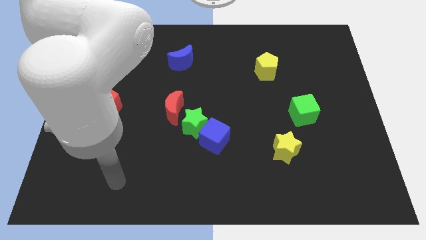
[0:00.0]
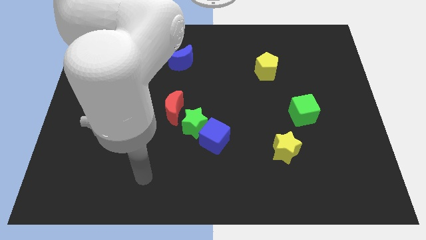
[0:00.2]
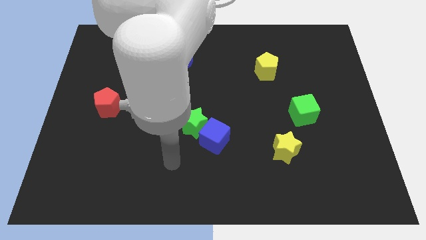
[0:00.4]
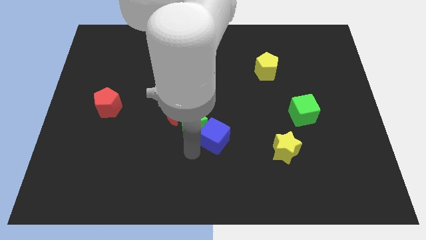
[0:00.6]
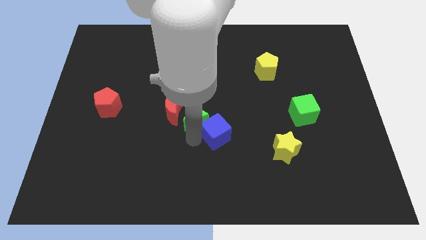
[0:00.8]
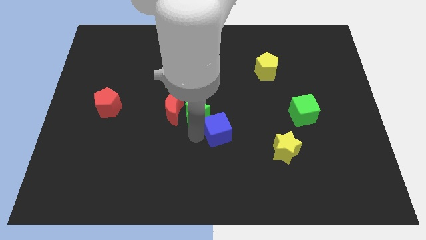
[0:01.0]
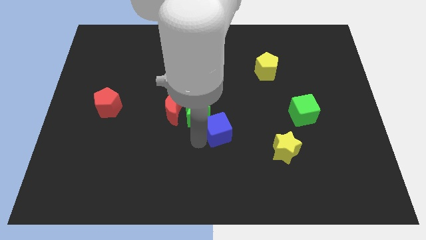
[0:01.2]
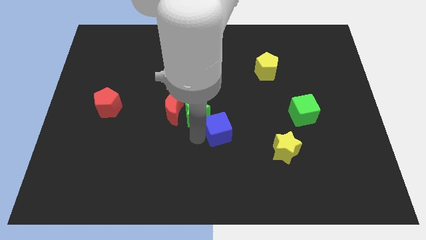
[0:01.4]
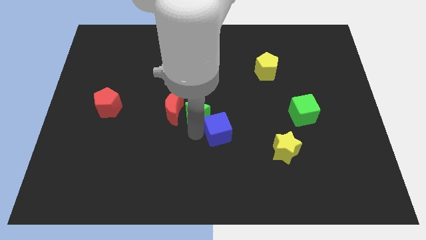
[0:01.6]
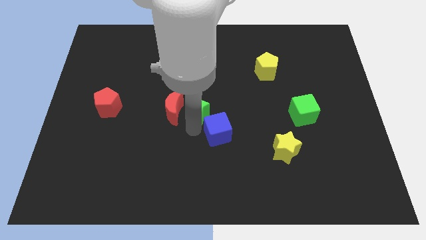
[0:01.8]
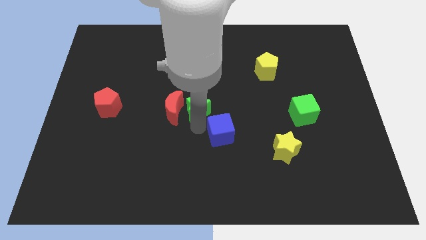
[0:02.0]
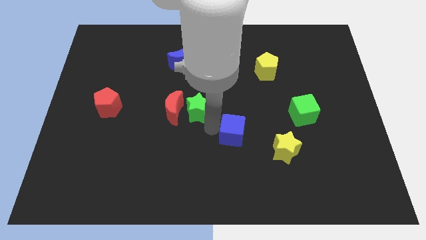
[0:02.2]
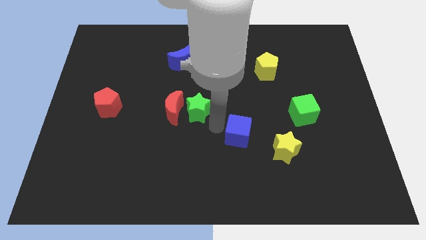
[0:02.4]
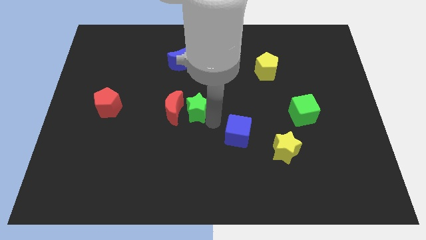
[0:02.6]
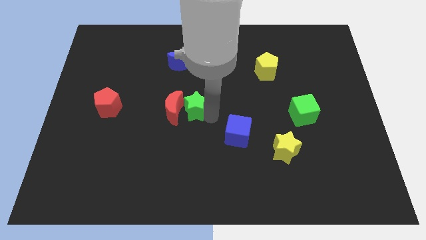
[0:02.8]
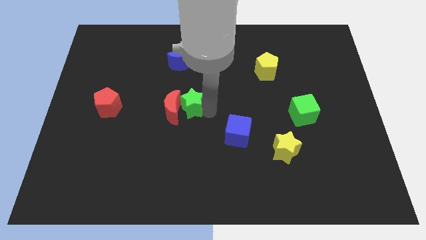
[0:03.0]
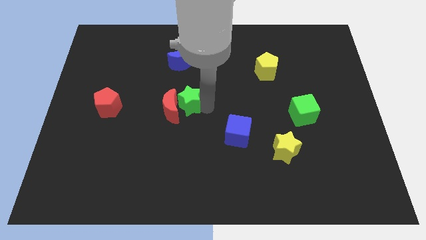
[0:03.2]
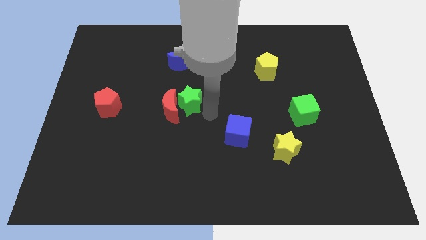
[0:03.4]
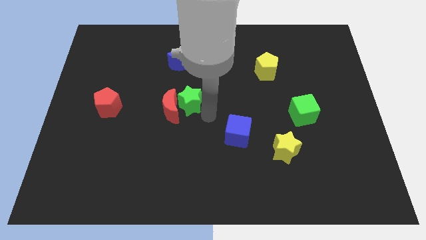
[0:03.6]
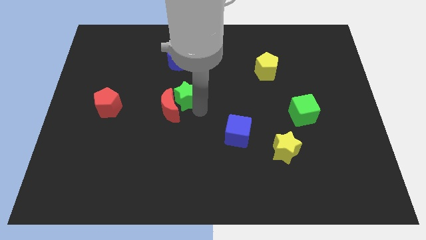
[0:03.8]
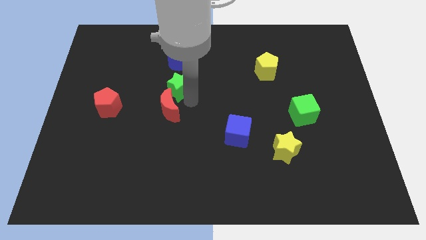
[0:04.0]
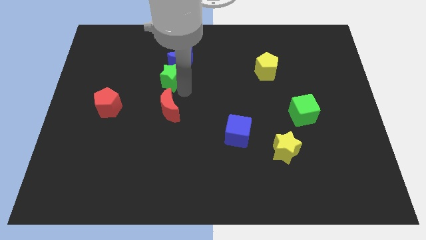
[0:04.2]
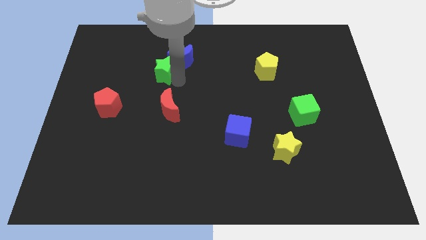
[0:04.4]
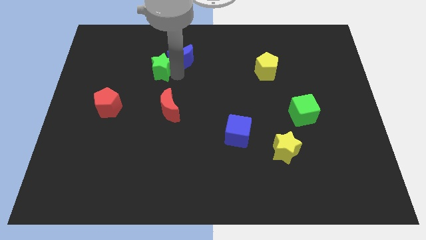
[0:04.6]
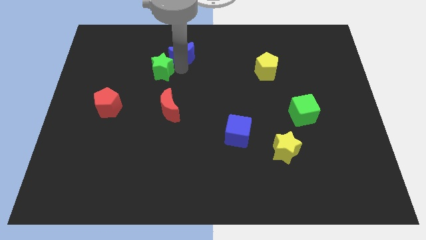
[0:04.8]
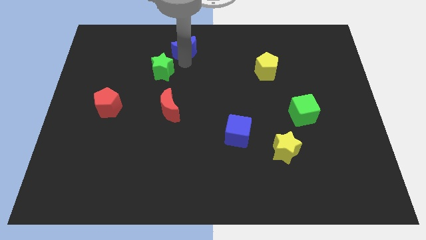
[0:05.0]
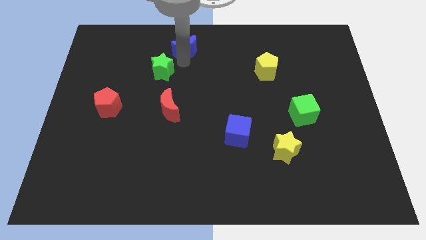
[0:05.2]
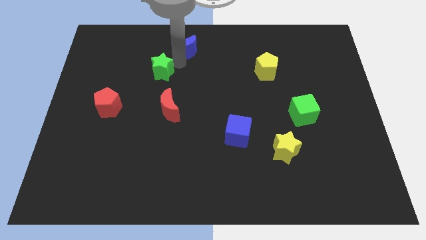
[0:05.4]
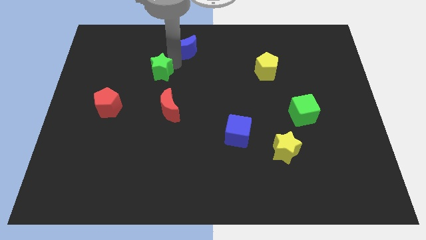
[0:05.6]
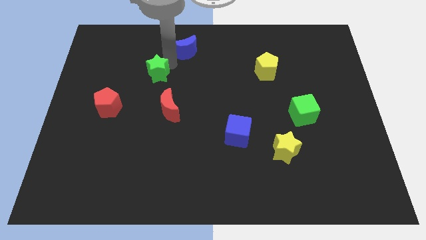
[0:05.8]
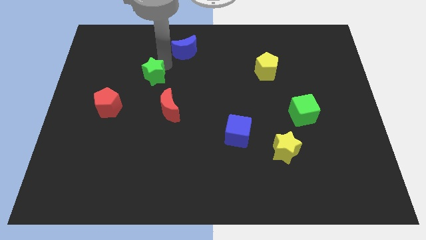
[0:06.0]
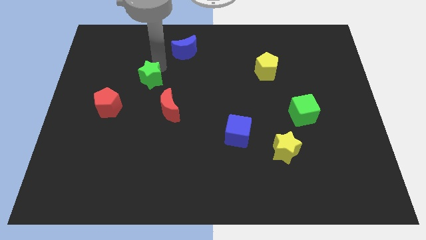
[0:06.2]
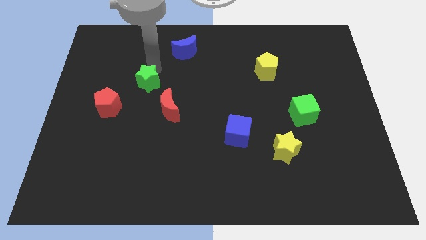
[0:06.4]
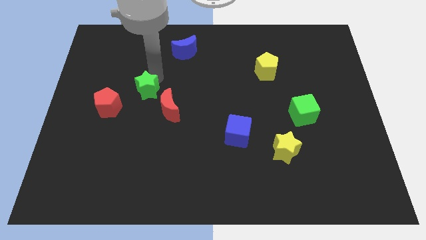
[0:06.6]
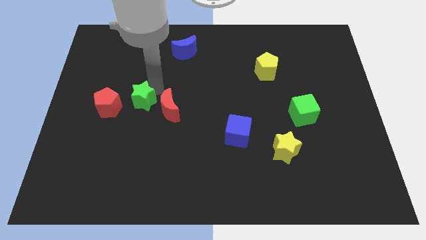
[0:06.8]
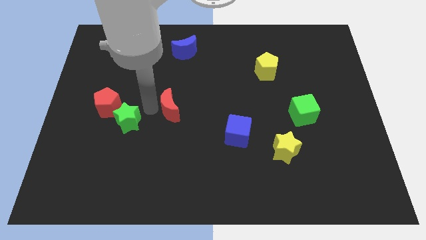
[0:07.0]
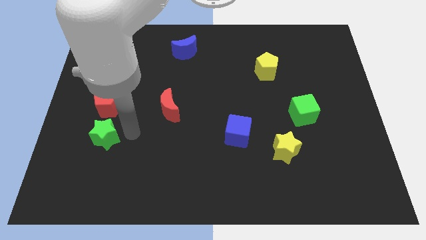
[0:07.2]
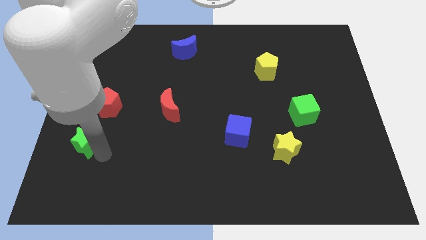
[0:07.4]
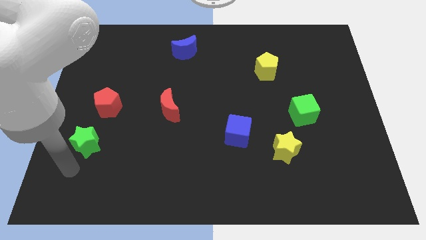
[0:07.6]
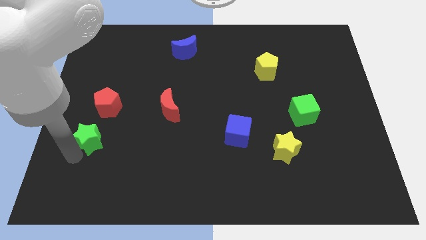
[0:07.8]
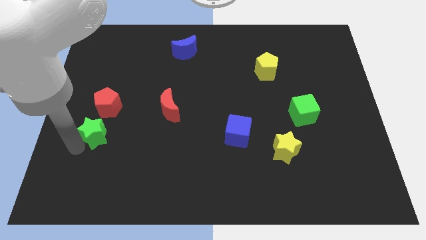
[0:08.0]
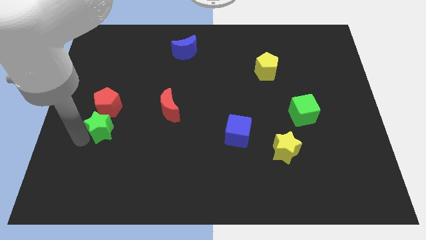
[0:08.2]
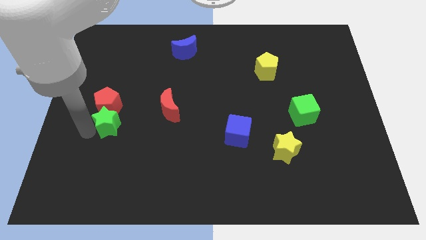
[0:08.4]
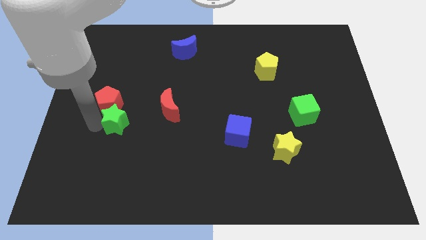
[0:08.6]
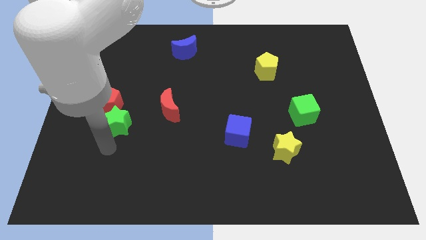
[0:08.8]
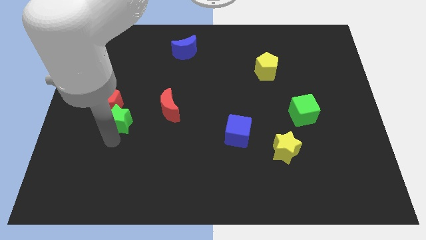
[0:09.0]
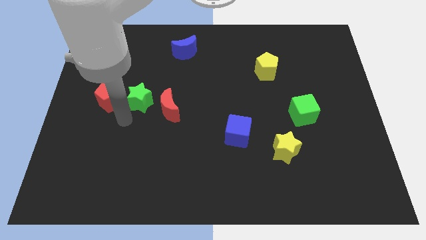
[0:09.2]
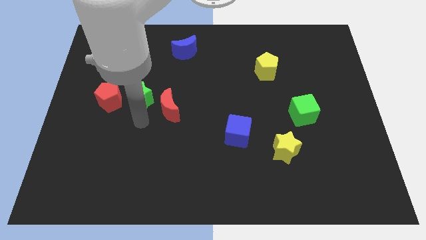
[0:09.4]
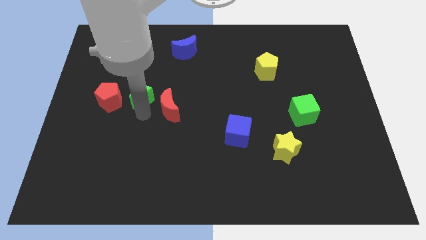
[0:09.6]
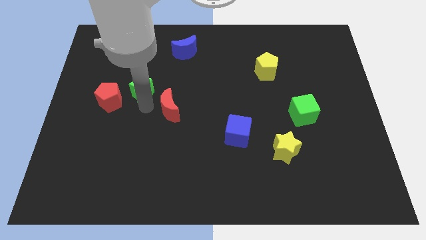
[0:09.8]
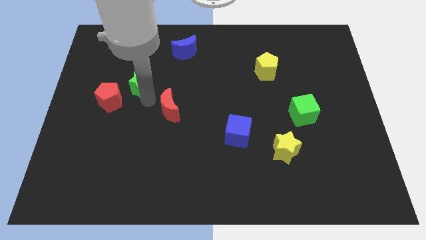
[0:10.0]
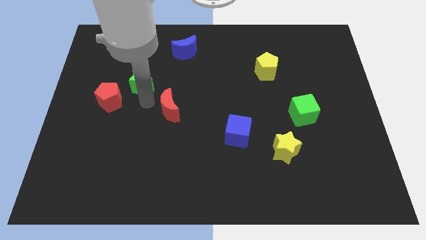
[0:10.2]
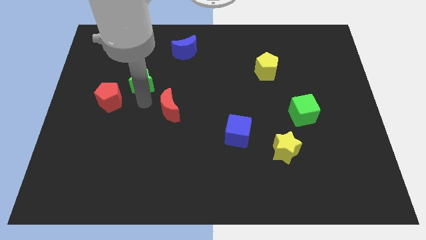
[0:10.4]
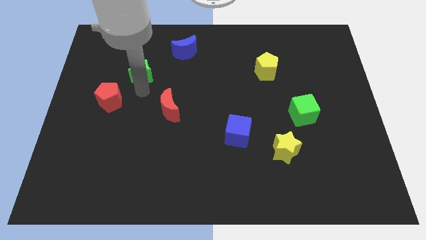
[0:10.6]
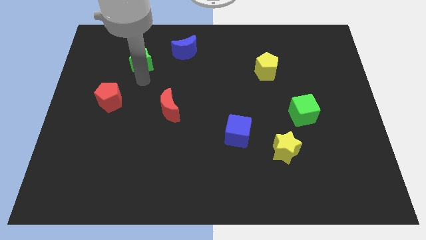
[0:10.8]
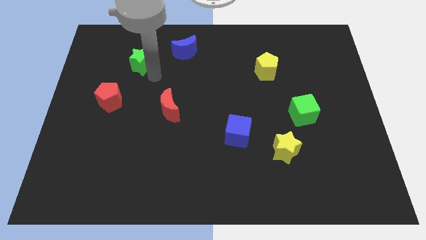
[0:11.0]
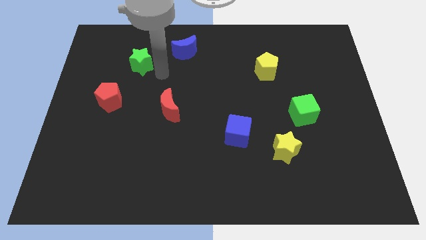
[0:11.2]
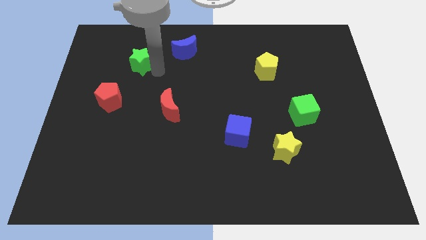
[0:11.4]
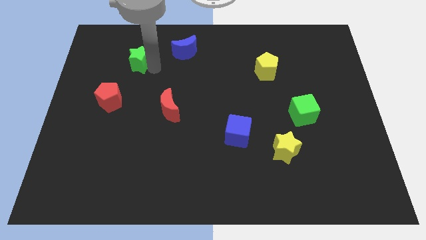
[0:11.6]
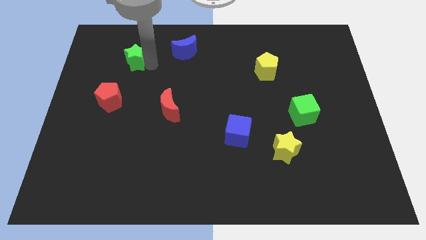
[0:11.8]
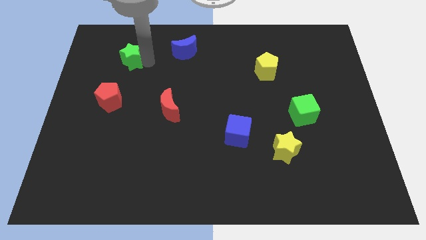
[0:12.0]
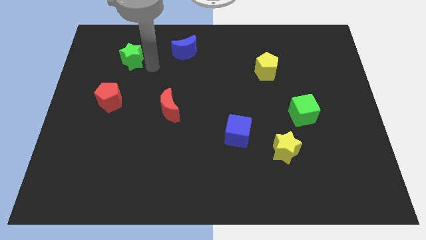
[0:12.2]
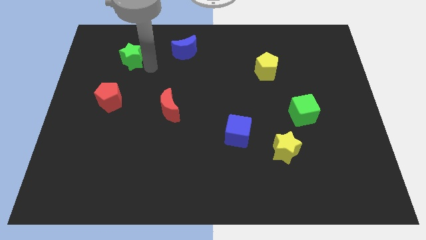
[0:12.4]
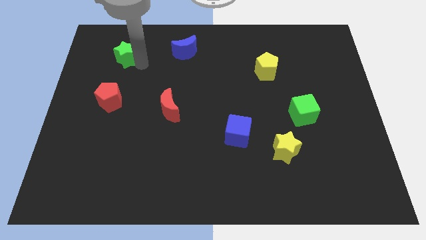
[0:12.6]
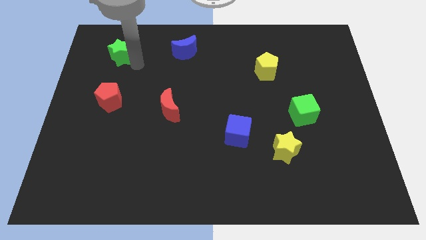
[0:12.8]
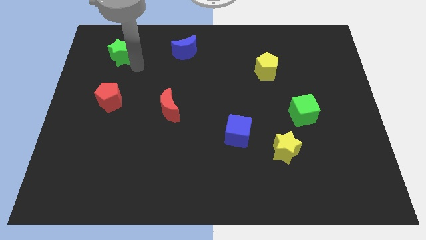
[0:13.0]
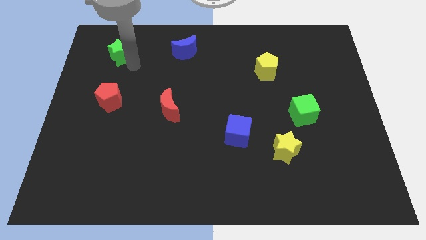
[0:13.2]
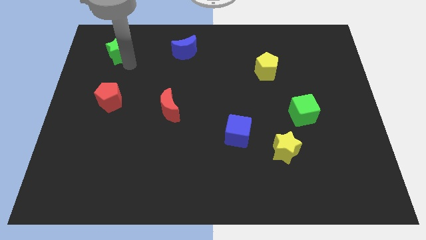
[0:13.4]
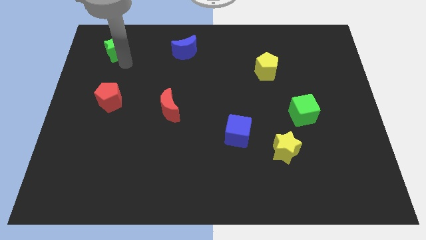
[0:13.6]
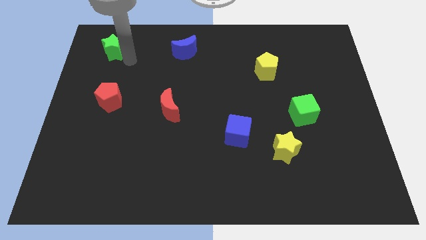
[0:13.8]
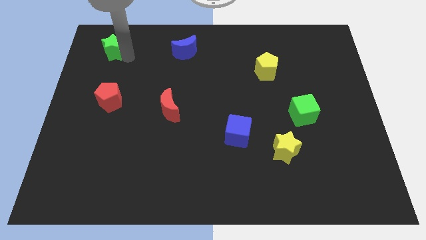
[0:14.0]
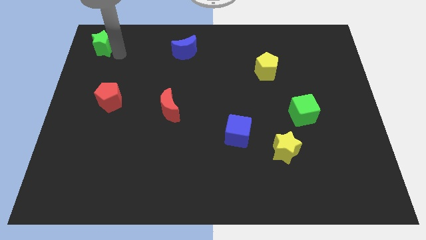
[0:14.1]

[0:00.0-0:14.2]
push the green star to the top left
